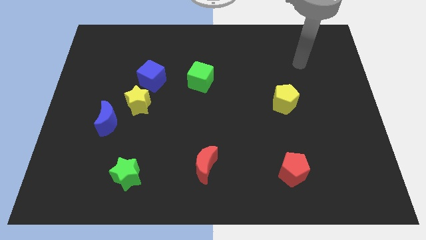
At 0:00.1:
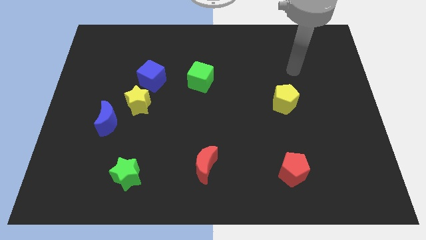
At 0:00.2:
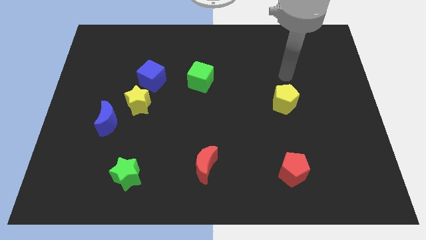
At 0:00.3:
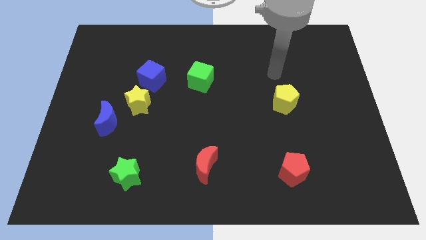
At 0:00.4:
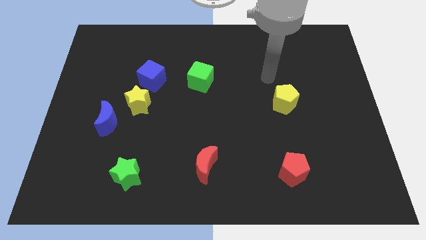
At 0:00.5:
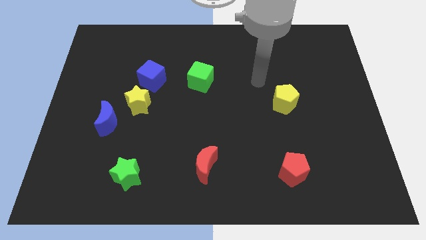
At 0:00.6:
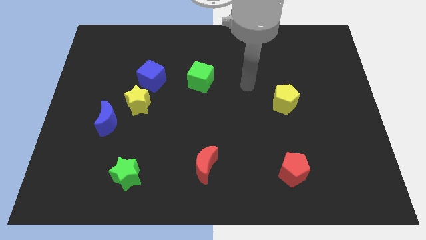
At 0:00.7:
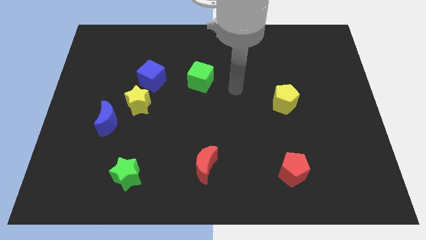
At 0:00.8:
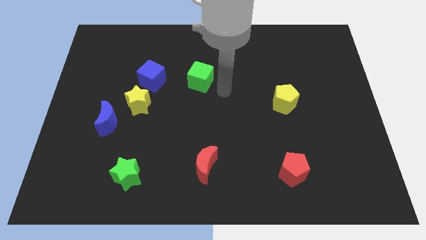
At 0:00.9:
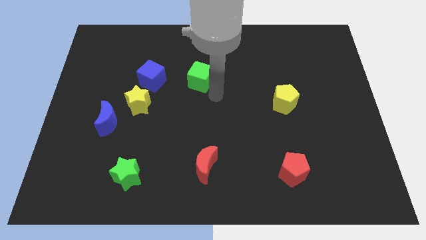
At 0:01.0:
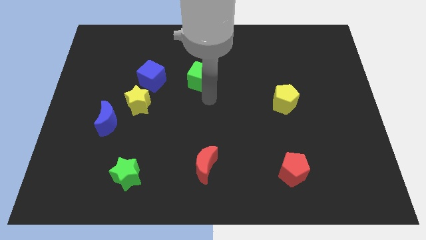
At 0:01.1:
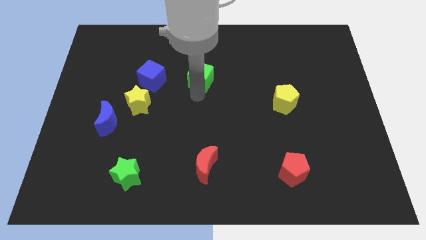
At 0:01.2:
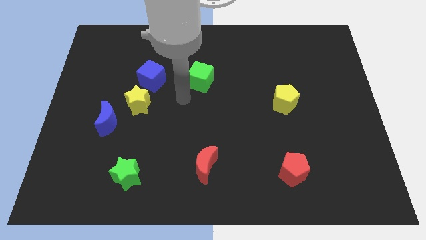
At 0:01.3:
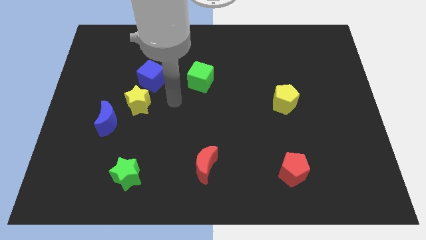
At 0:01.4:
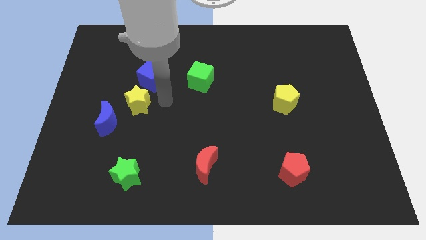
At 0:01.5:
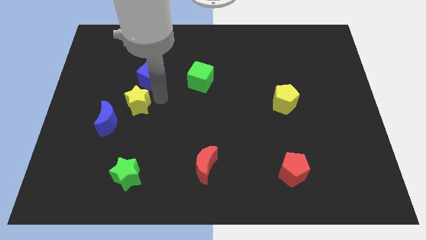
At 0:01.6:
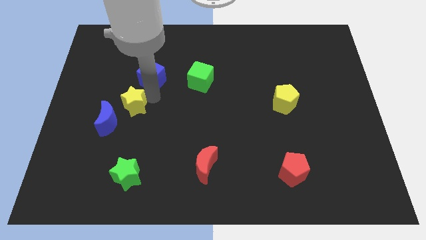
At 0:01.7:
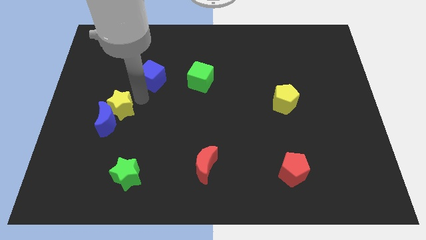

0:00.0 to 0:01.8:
separate the blue cube from the yellow star

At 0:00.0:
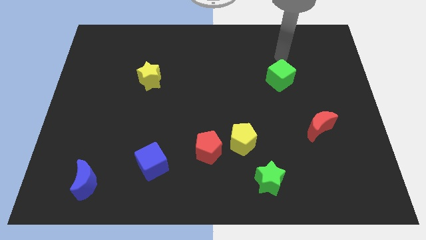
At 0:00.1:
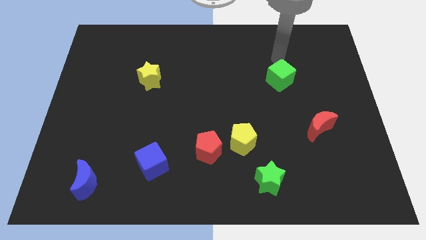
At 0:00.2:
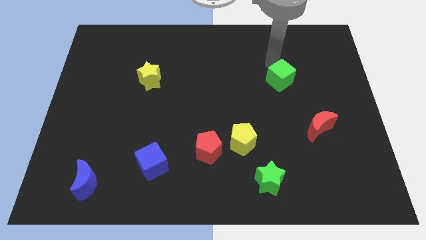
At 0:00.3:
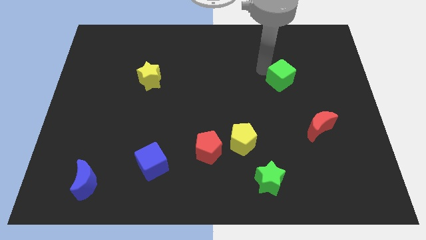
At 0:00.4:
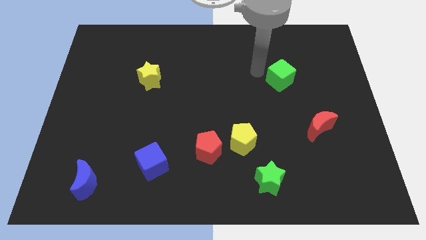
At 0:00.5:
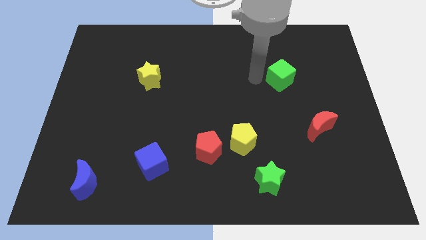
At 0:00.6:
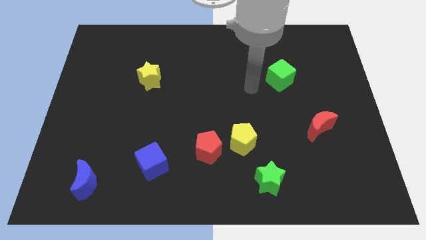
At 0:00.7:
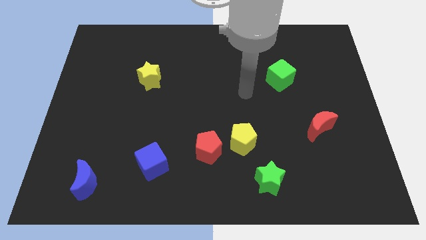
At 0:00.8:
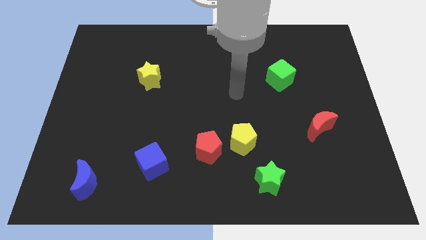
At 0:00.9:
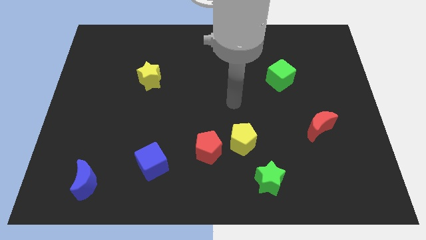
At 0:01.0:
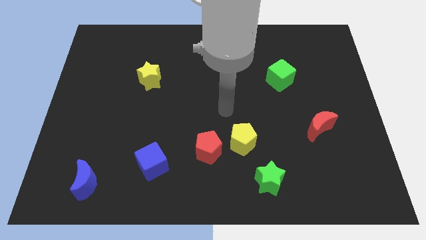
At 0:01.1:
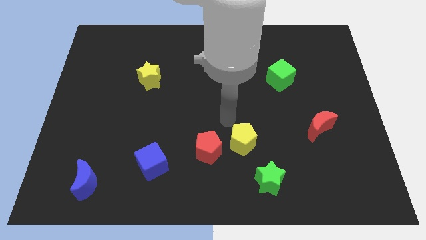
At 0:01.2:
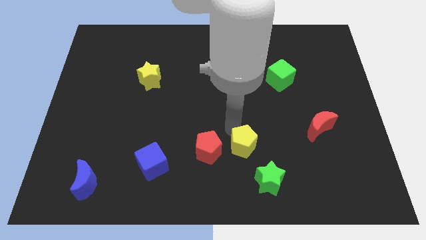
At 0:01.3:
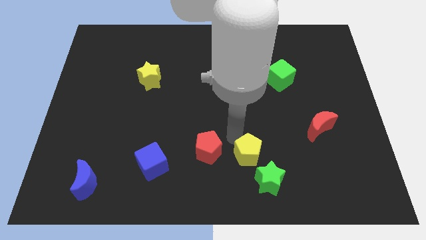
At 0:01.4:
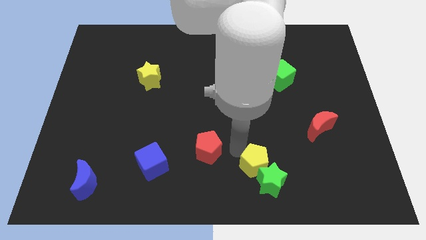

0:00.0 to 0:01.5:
separate the red pentagon from the yellow pentagon

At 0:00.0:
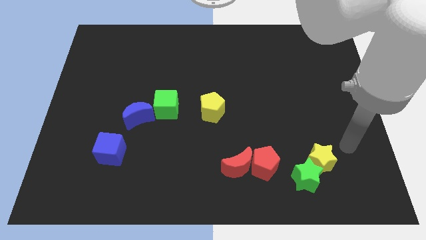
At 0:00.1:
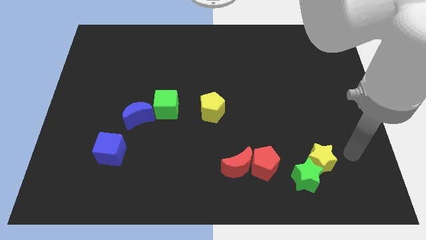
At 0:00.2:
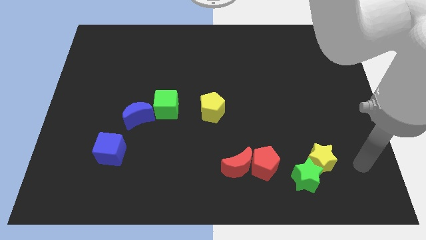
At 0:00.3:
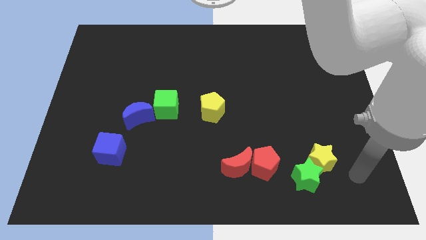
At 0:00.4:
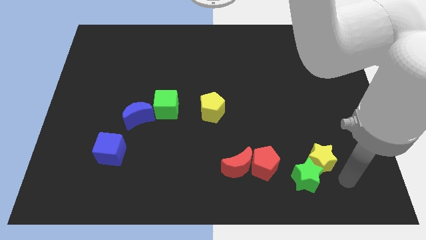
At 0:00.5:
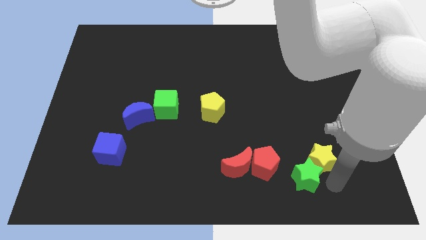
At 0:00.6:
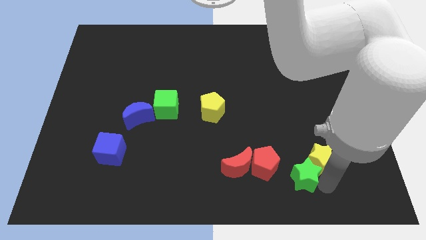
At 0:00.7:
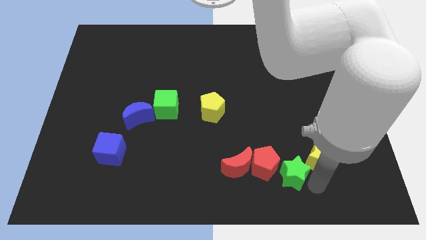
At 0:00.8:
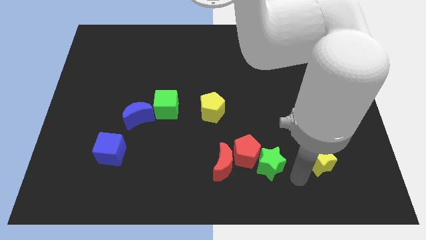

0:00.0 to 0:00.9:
move the yellow star away from the green star

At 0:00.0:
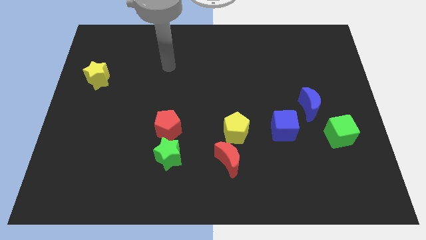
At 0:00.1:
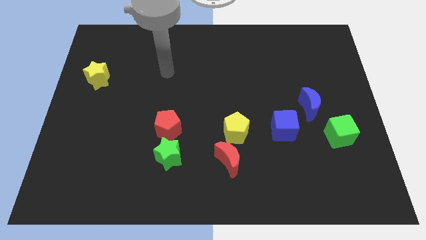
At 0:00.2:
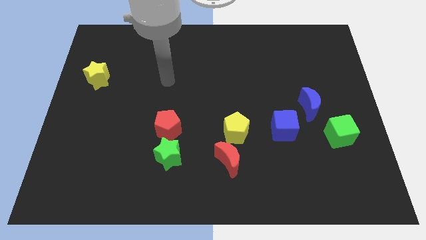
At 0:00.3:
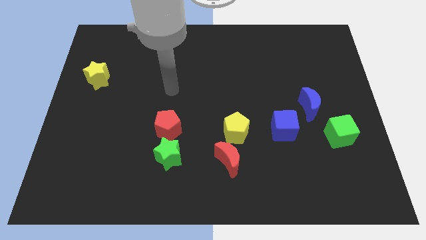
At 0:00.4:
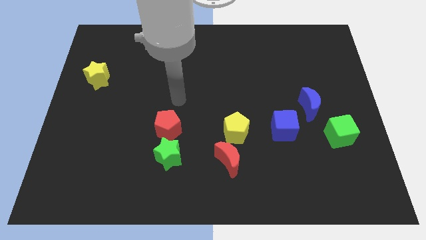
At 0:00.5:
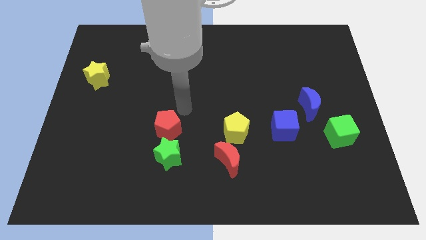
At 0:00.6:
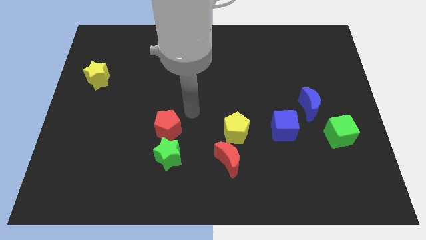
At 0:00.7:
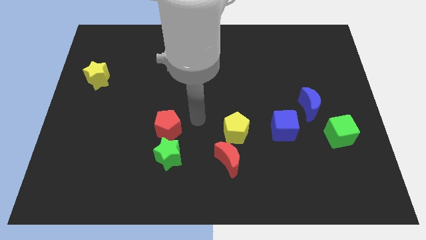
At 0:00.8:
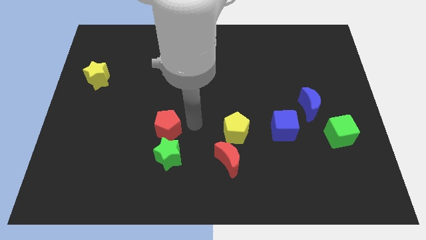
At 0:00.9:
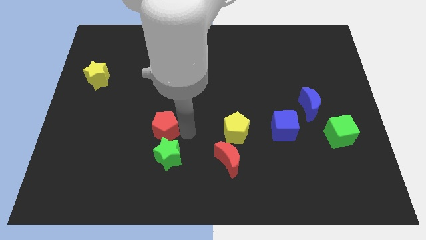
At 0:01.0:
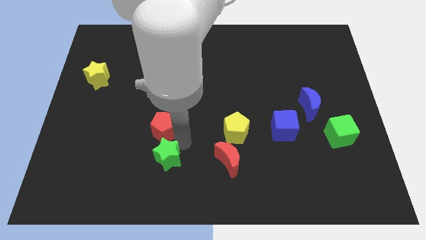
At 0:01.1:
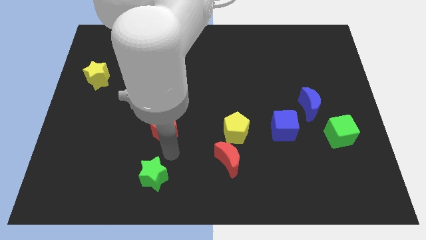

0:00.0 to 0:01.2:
move the red pentagon away from the green star

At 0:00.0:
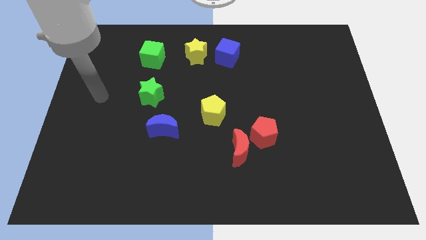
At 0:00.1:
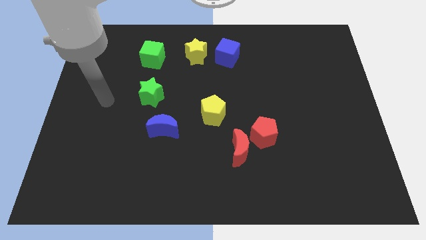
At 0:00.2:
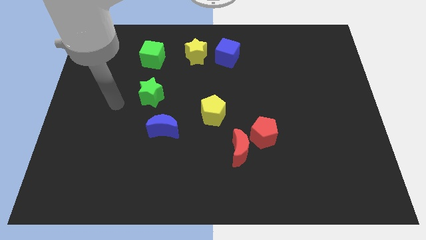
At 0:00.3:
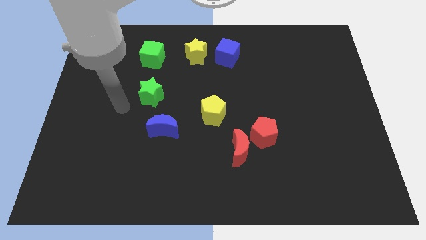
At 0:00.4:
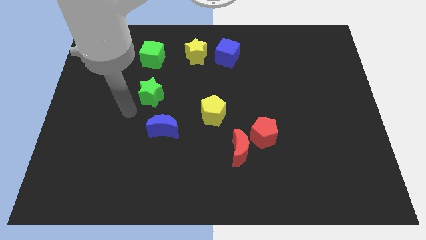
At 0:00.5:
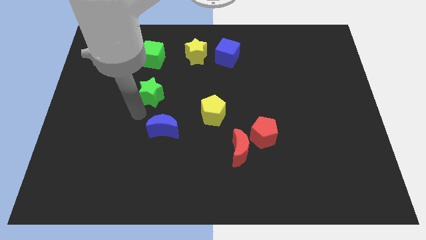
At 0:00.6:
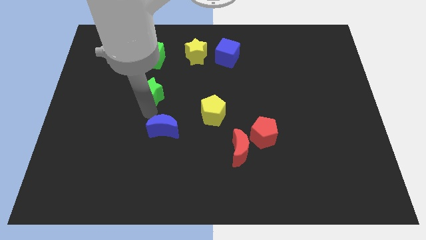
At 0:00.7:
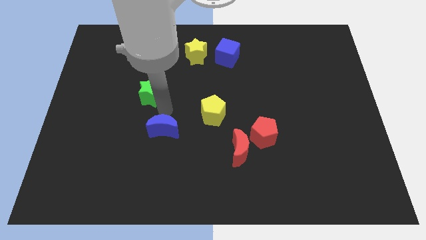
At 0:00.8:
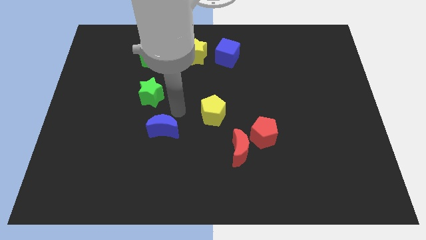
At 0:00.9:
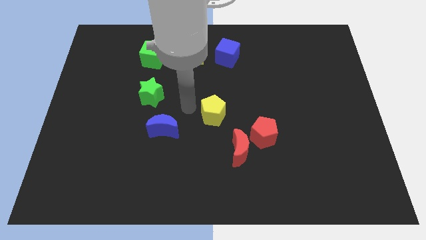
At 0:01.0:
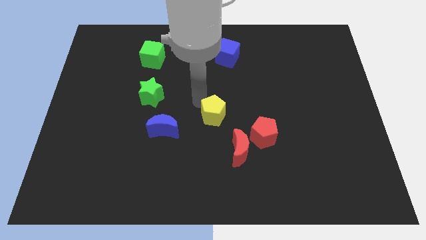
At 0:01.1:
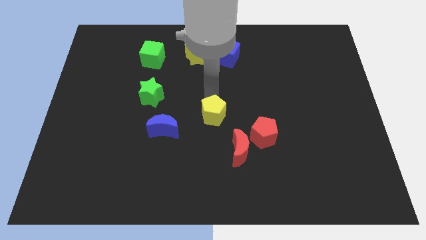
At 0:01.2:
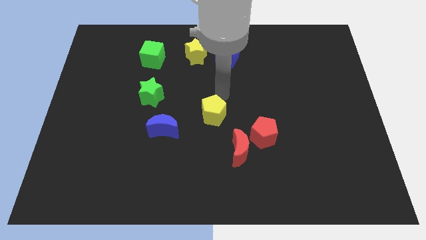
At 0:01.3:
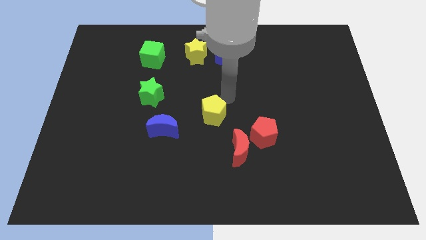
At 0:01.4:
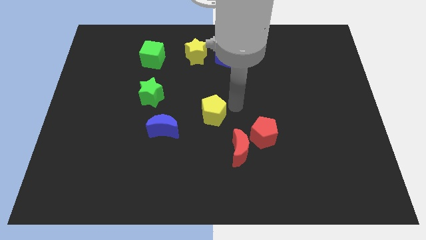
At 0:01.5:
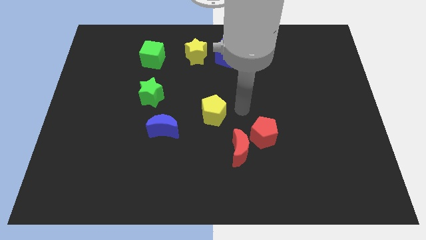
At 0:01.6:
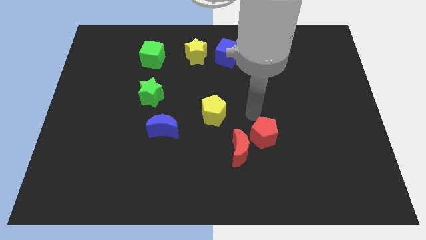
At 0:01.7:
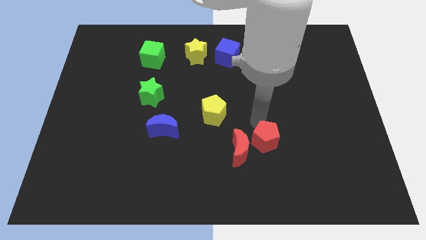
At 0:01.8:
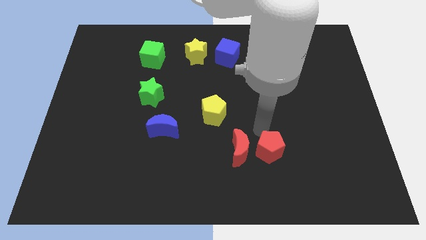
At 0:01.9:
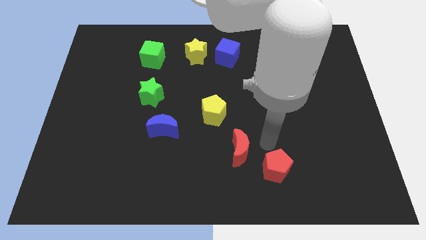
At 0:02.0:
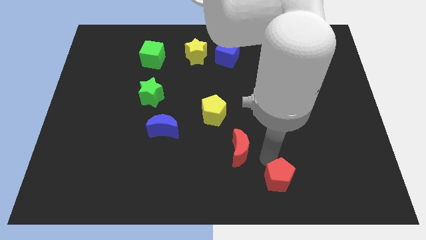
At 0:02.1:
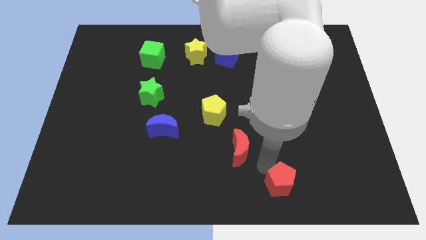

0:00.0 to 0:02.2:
separate the red moon from the red pentagon

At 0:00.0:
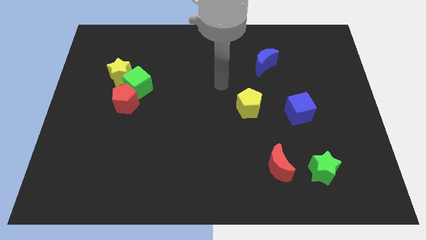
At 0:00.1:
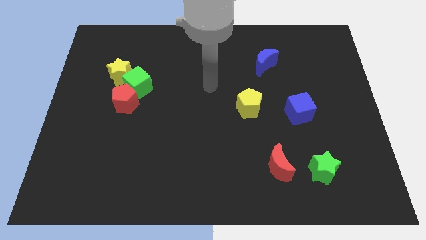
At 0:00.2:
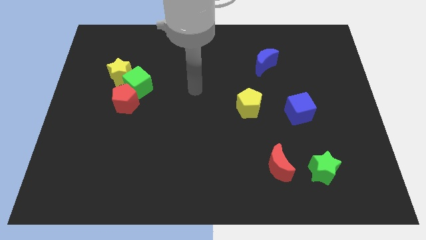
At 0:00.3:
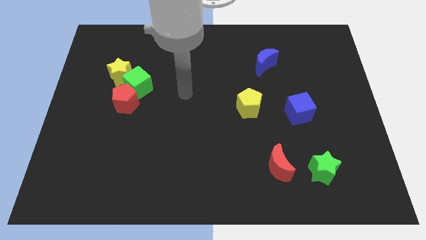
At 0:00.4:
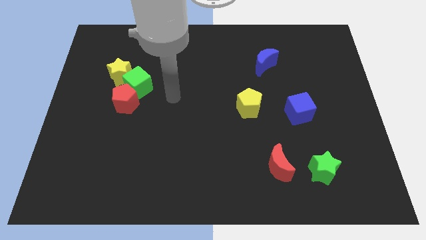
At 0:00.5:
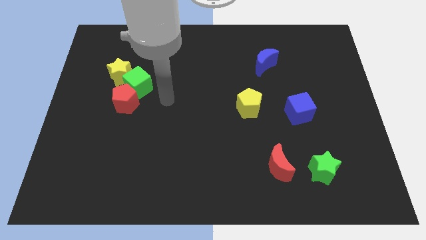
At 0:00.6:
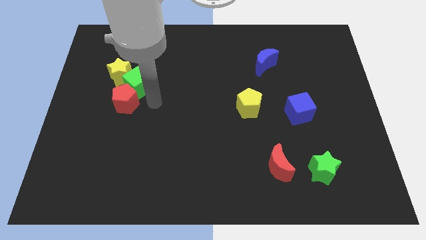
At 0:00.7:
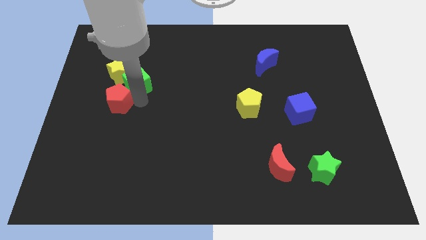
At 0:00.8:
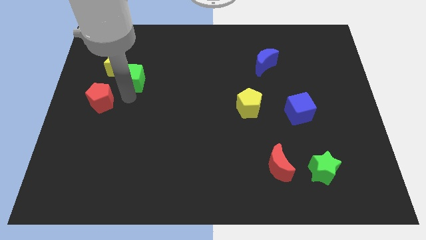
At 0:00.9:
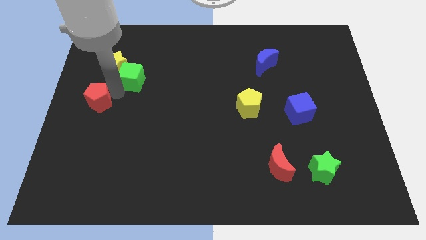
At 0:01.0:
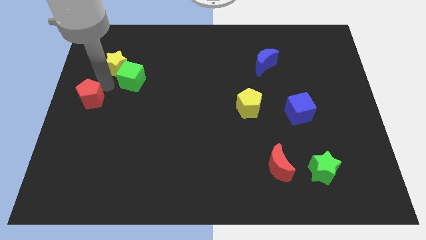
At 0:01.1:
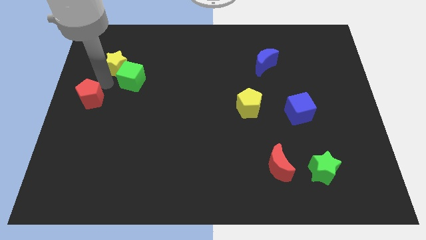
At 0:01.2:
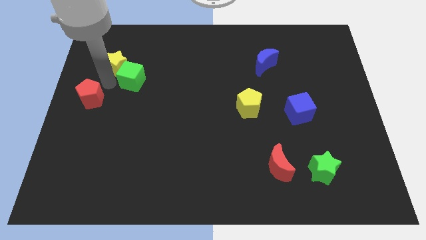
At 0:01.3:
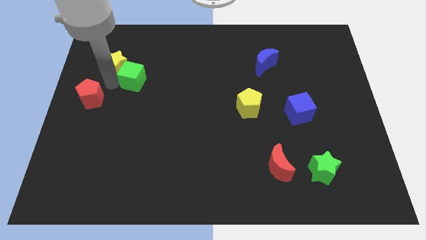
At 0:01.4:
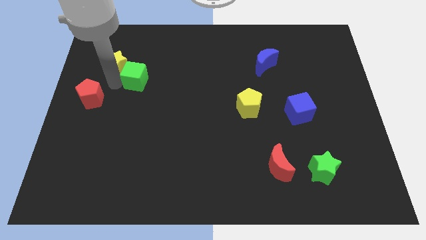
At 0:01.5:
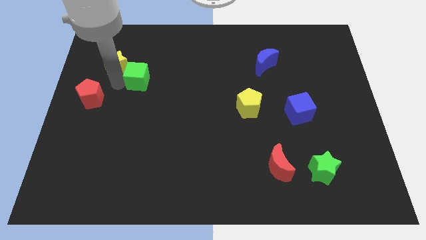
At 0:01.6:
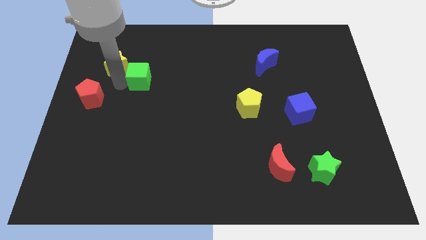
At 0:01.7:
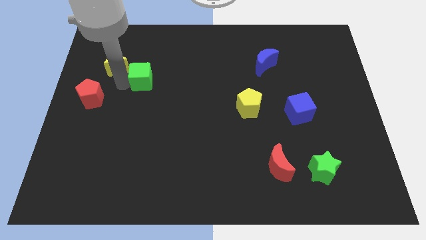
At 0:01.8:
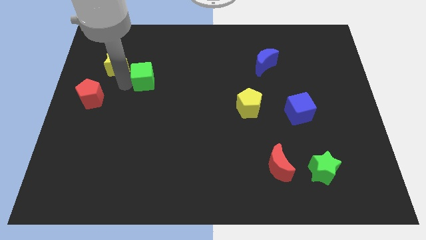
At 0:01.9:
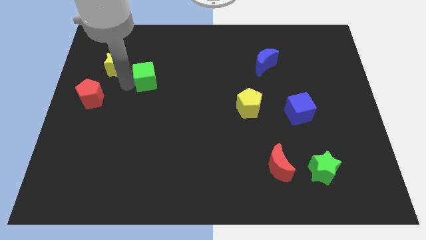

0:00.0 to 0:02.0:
pull the green cube apart from the red pentagon and yellow star
